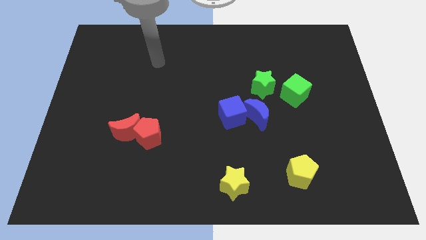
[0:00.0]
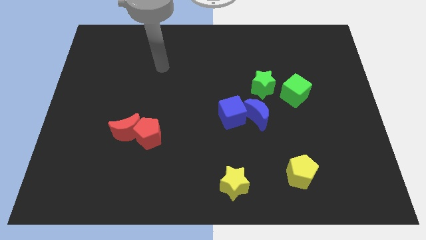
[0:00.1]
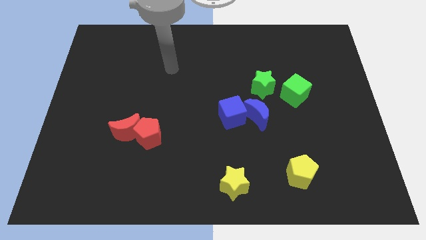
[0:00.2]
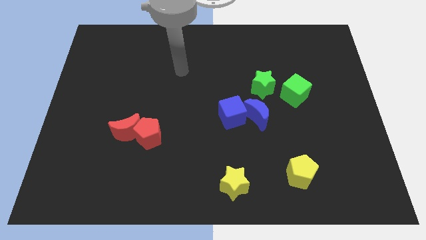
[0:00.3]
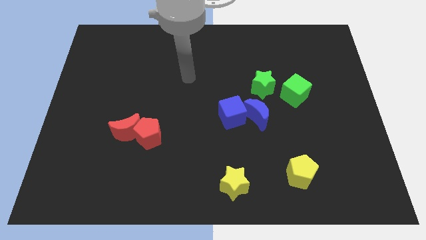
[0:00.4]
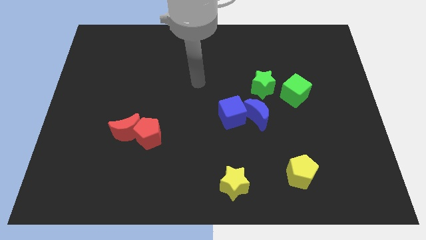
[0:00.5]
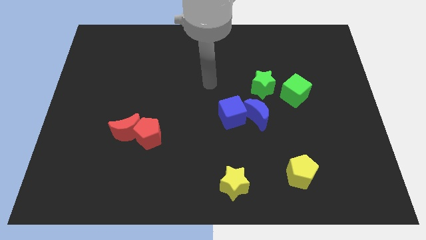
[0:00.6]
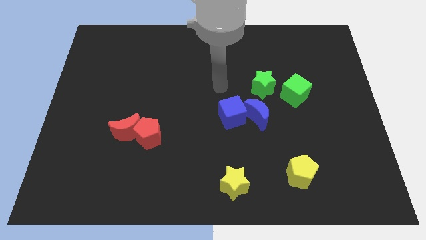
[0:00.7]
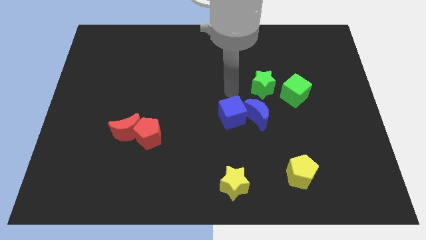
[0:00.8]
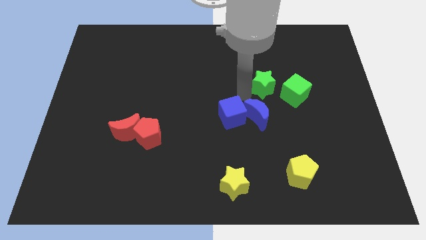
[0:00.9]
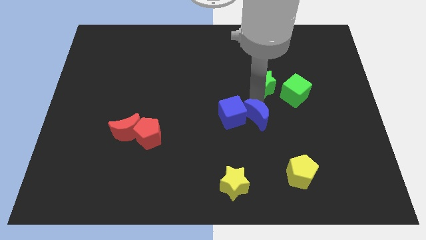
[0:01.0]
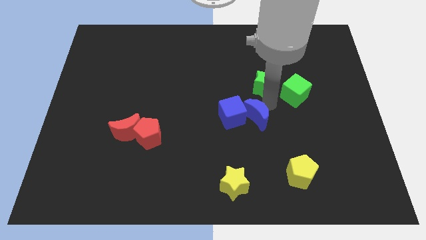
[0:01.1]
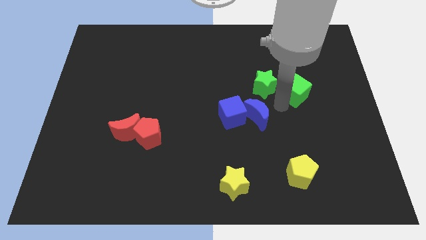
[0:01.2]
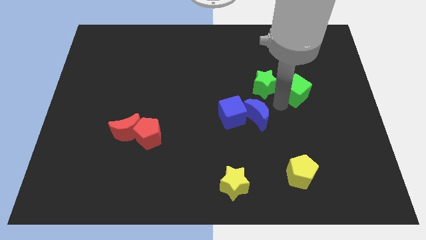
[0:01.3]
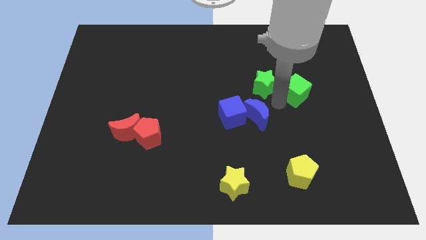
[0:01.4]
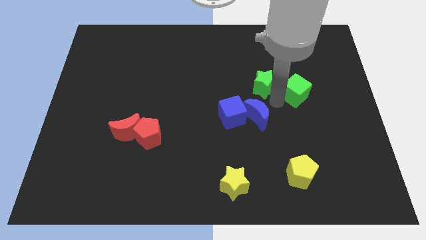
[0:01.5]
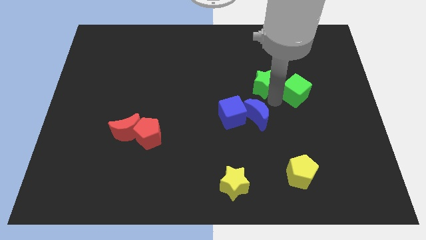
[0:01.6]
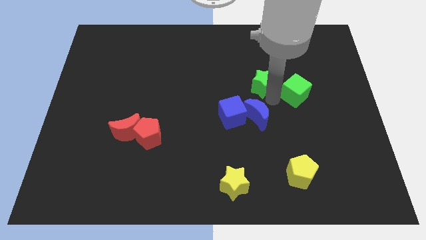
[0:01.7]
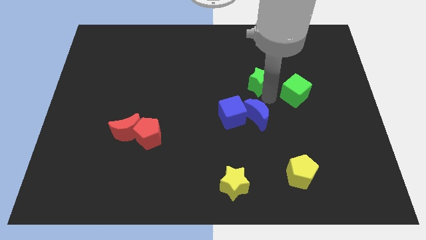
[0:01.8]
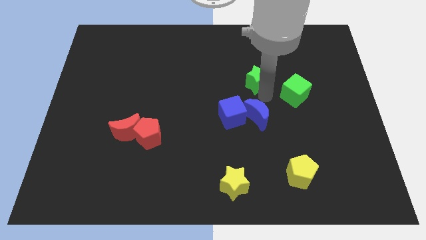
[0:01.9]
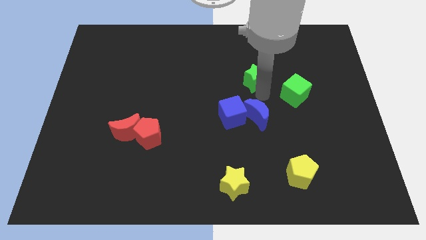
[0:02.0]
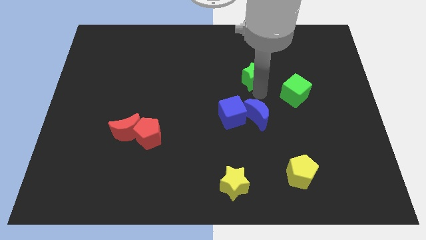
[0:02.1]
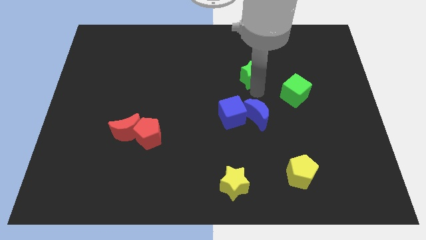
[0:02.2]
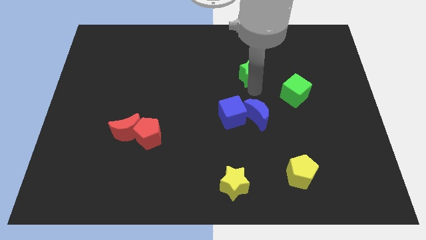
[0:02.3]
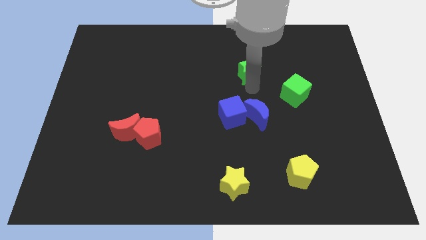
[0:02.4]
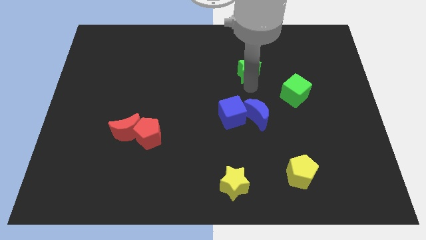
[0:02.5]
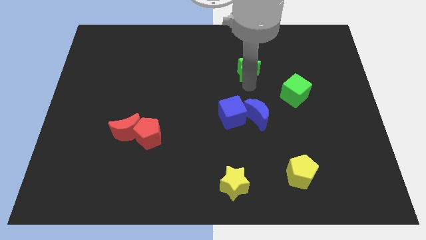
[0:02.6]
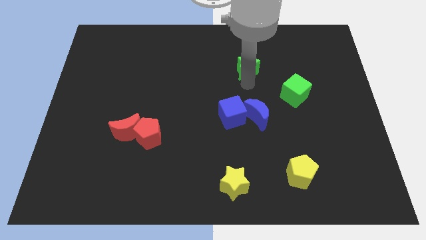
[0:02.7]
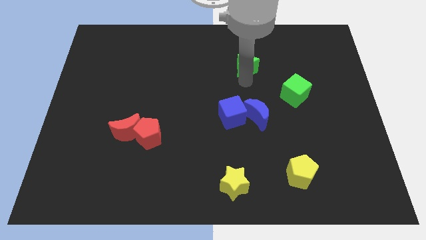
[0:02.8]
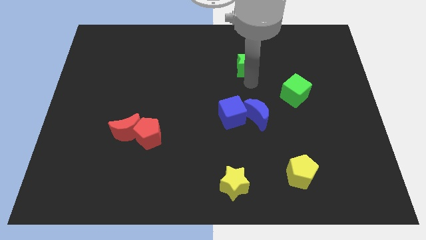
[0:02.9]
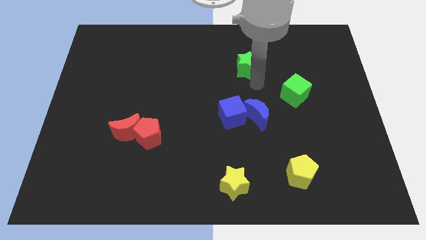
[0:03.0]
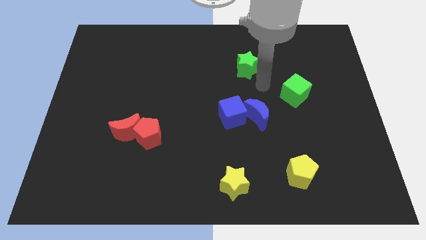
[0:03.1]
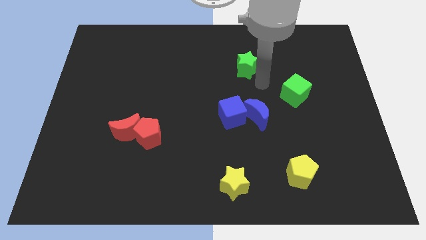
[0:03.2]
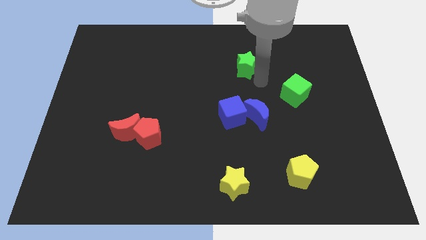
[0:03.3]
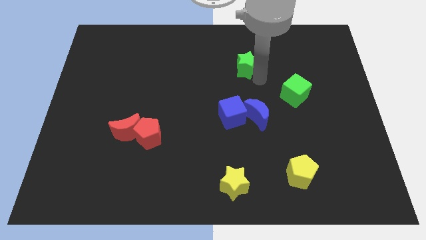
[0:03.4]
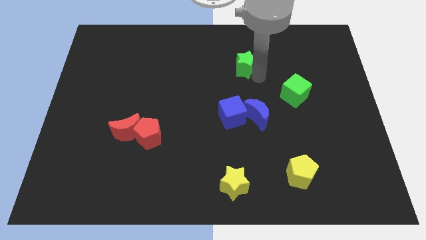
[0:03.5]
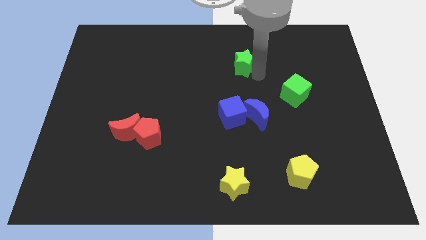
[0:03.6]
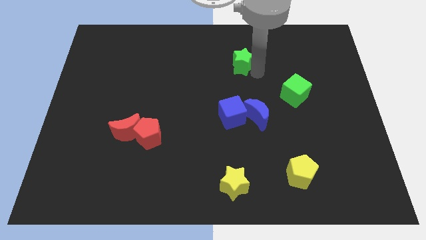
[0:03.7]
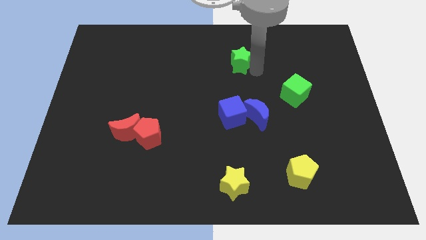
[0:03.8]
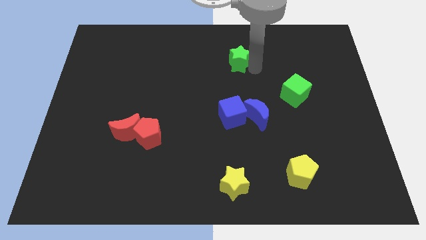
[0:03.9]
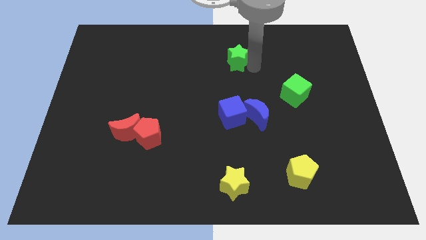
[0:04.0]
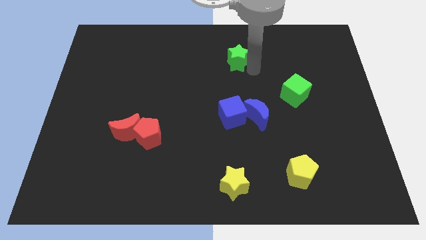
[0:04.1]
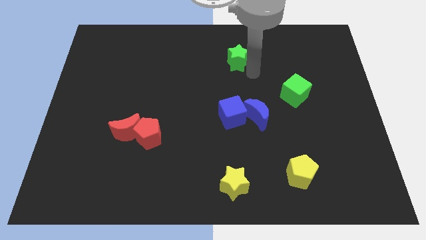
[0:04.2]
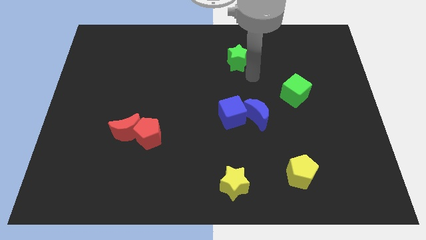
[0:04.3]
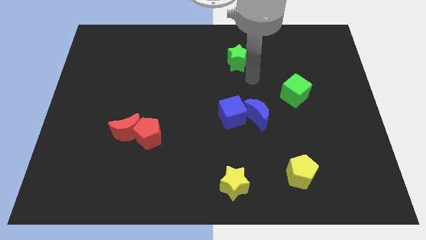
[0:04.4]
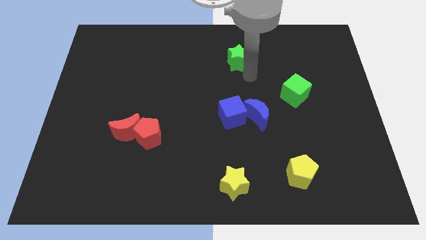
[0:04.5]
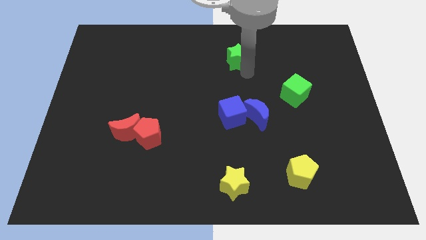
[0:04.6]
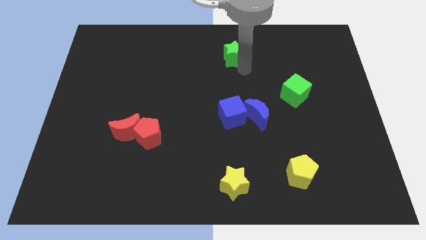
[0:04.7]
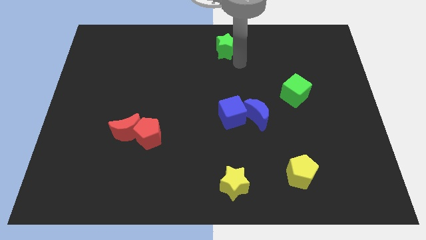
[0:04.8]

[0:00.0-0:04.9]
move the green star to the top side

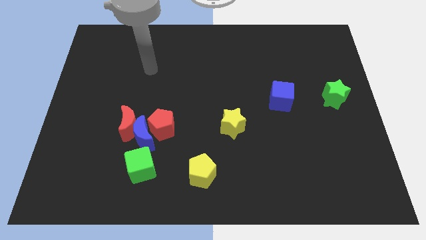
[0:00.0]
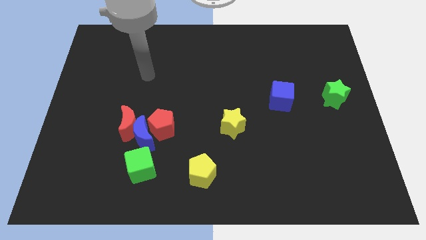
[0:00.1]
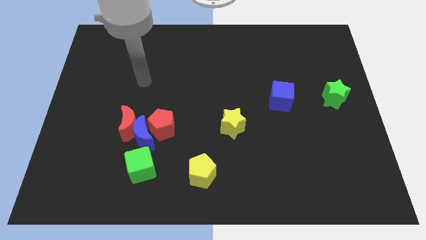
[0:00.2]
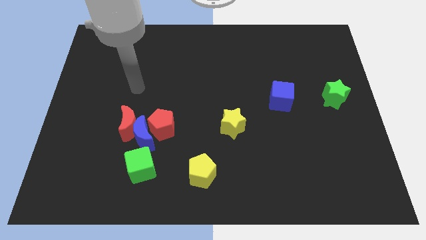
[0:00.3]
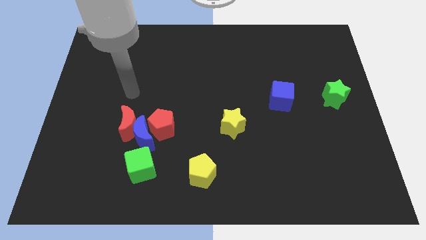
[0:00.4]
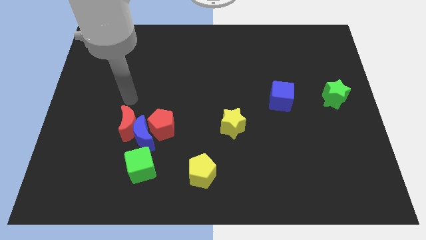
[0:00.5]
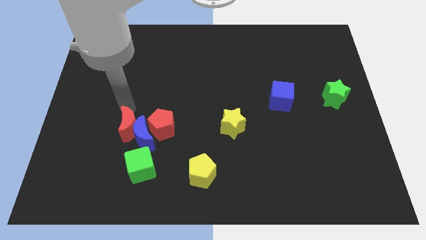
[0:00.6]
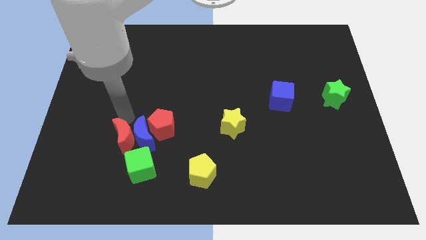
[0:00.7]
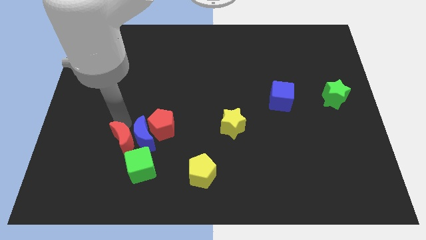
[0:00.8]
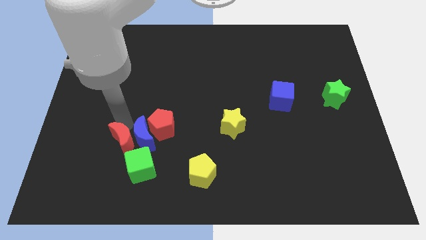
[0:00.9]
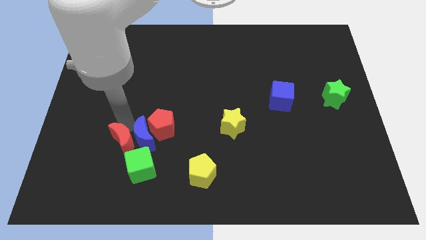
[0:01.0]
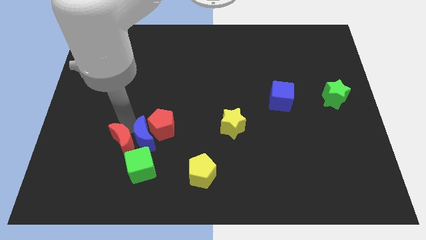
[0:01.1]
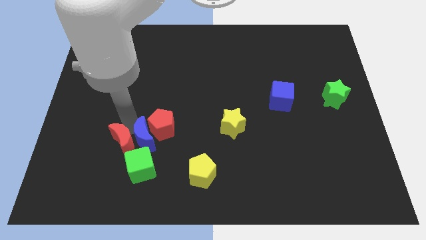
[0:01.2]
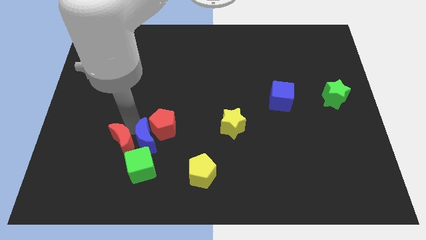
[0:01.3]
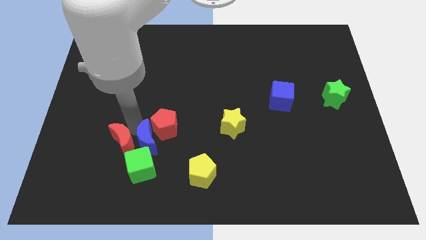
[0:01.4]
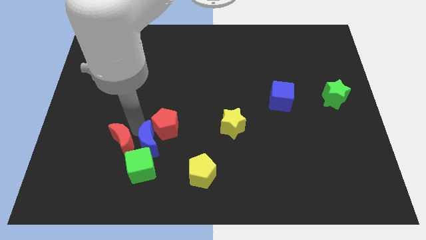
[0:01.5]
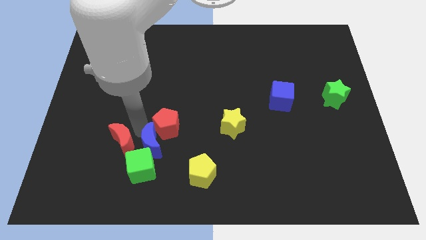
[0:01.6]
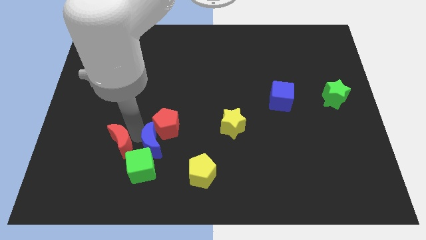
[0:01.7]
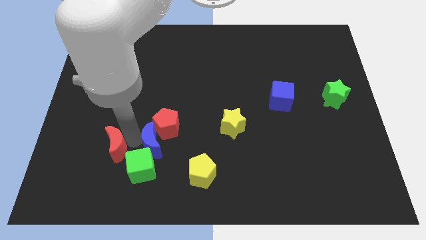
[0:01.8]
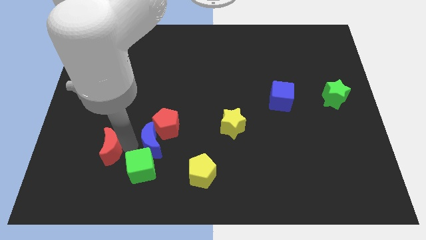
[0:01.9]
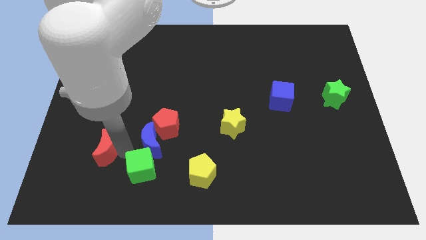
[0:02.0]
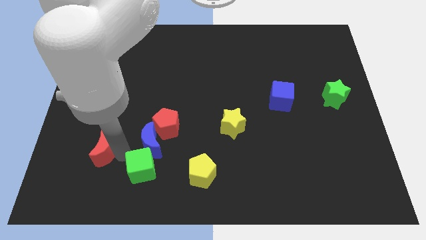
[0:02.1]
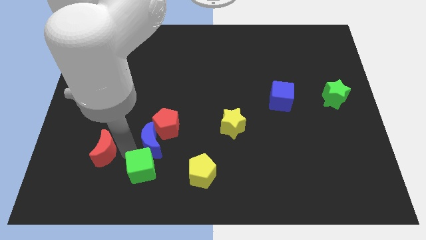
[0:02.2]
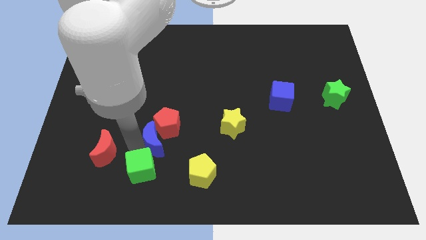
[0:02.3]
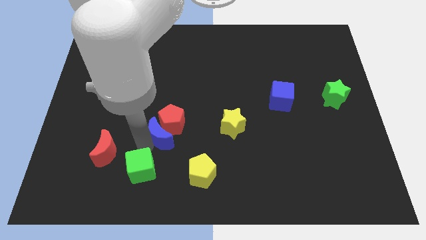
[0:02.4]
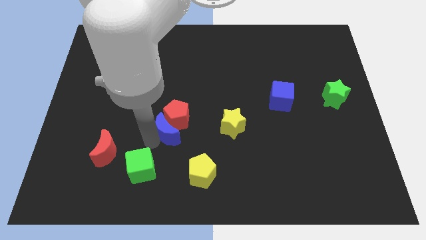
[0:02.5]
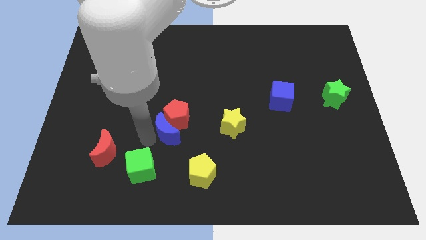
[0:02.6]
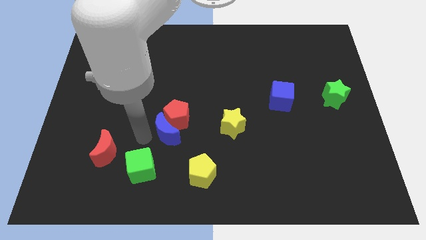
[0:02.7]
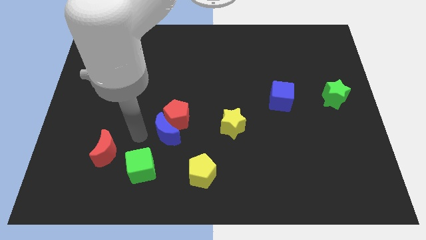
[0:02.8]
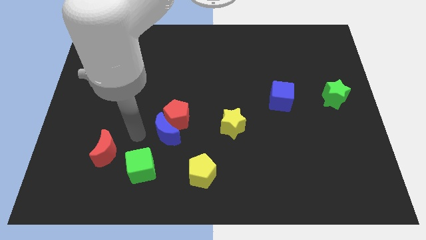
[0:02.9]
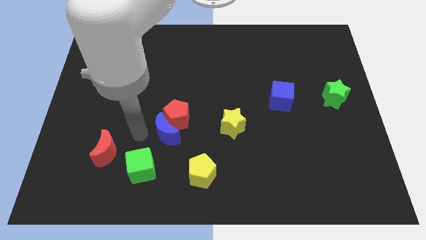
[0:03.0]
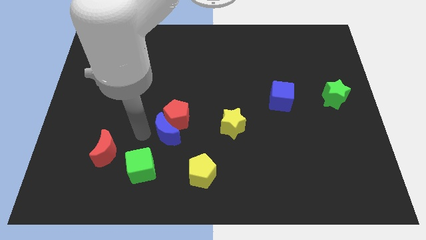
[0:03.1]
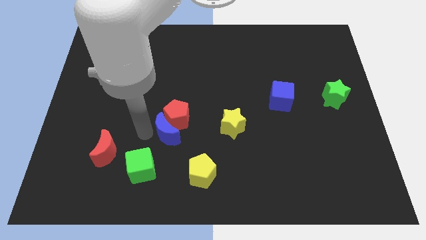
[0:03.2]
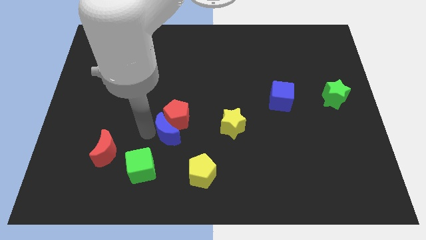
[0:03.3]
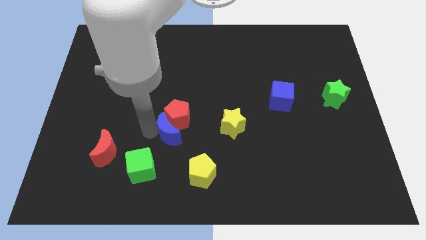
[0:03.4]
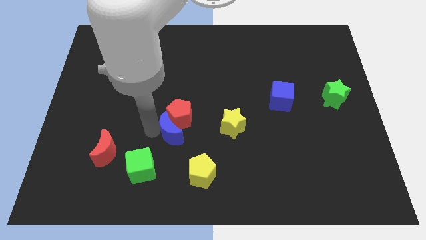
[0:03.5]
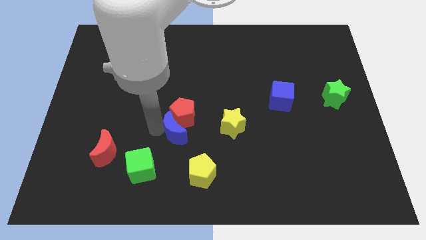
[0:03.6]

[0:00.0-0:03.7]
move the blue moon to the middle of the board
